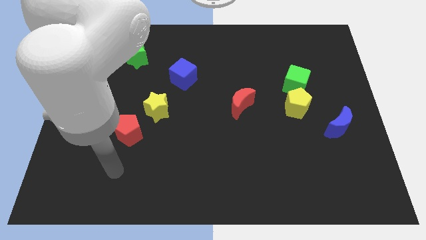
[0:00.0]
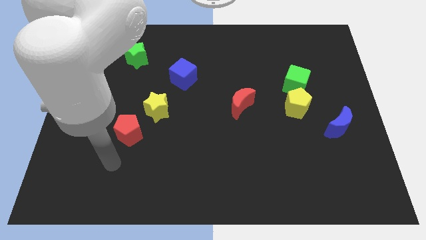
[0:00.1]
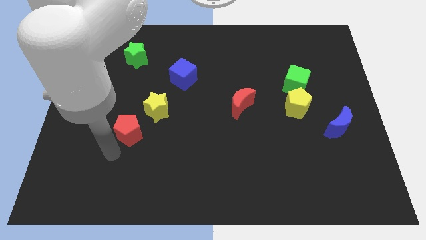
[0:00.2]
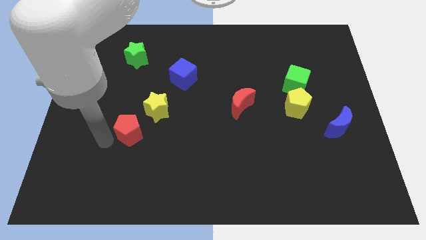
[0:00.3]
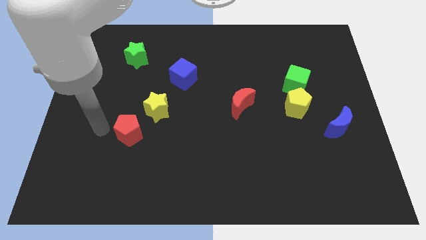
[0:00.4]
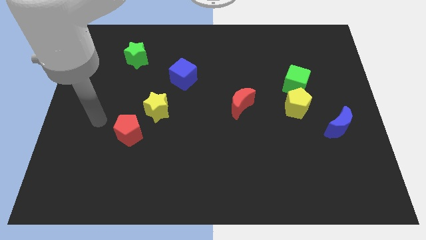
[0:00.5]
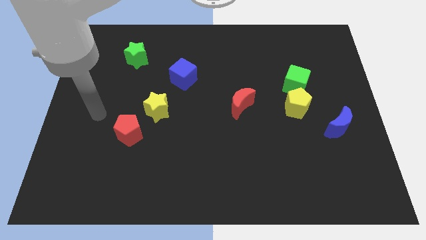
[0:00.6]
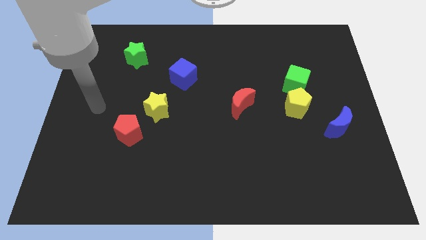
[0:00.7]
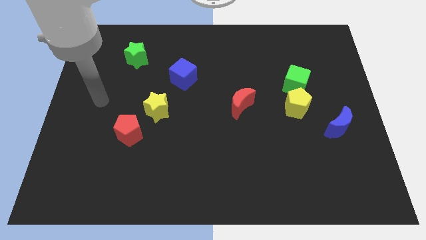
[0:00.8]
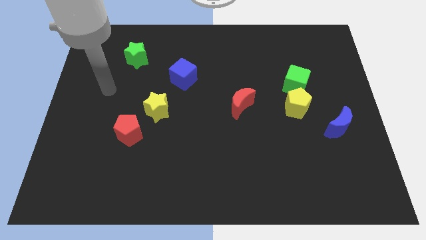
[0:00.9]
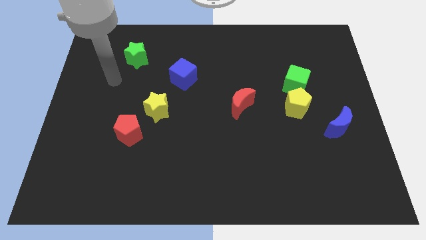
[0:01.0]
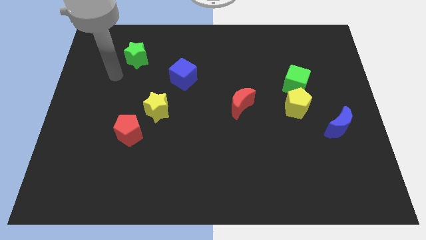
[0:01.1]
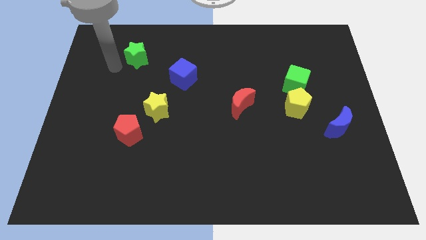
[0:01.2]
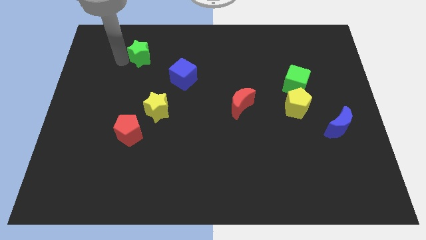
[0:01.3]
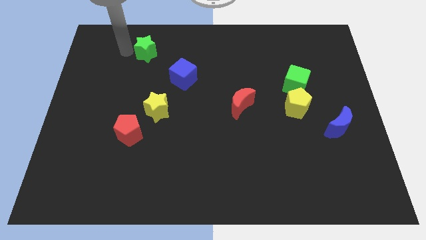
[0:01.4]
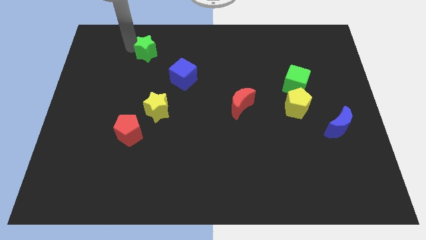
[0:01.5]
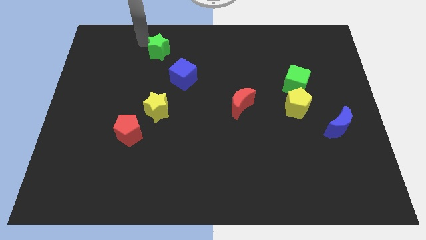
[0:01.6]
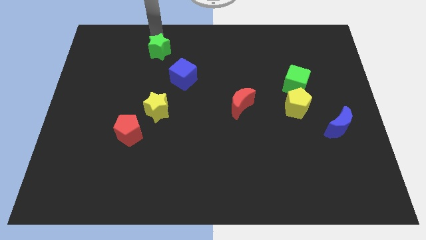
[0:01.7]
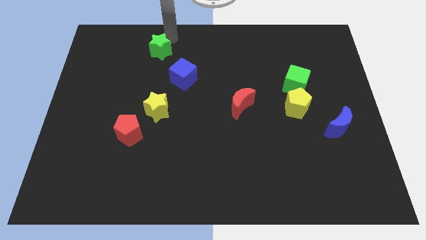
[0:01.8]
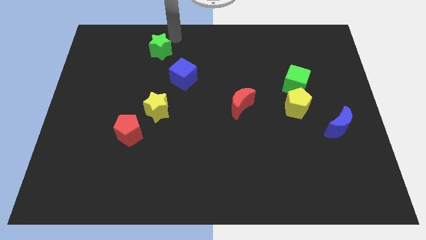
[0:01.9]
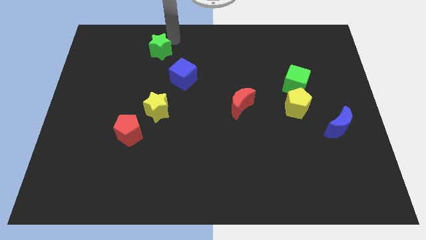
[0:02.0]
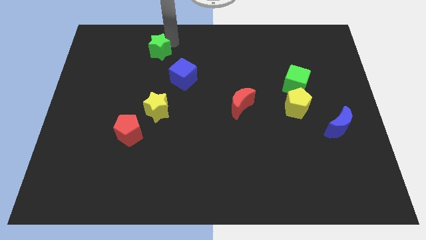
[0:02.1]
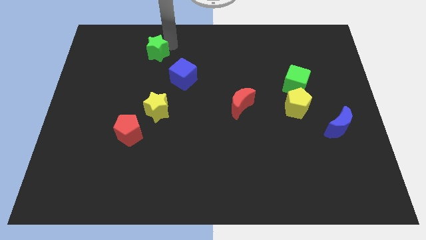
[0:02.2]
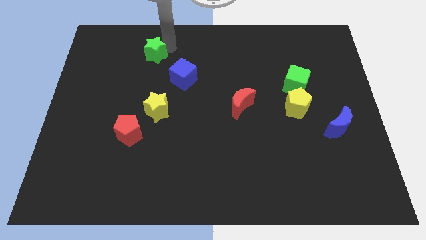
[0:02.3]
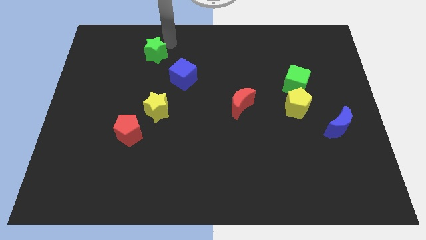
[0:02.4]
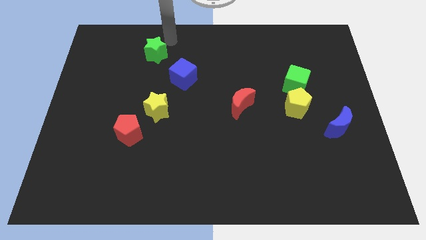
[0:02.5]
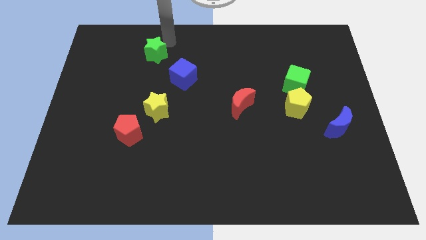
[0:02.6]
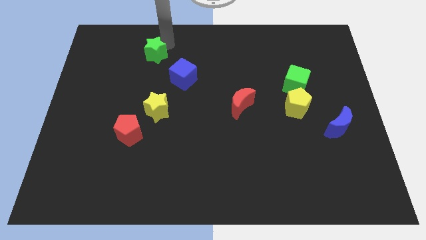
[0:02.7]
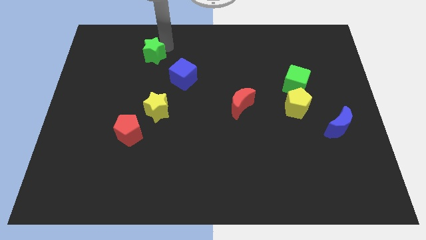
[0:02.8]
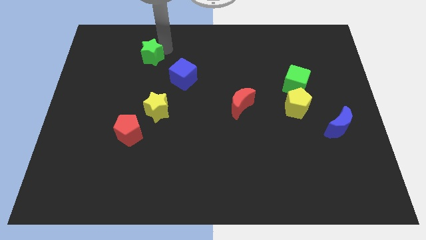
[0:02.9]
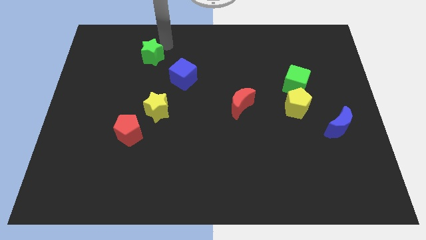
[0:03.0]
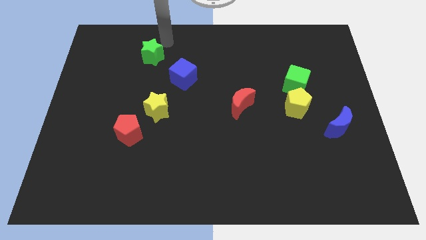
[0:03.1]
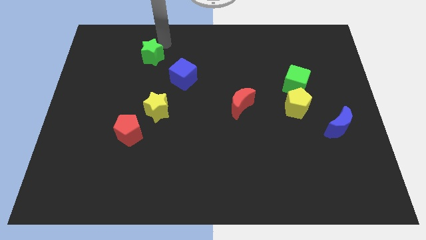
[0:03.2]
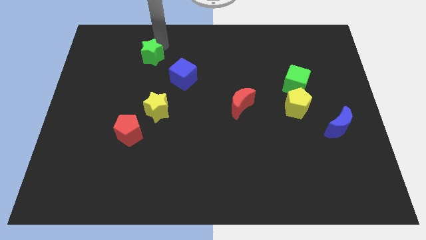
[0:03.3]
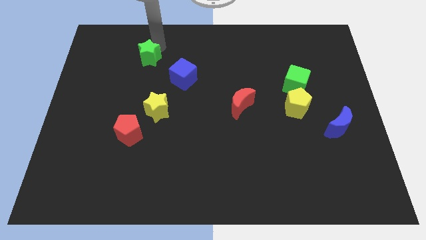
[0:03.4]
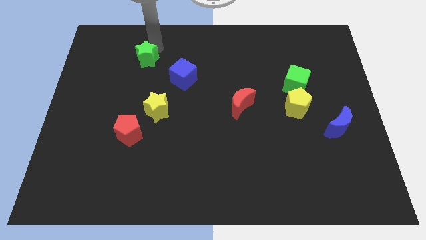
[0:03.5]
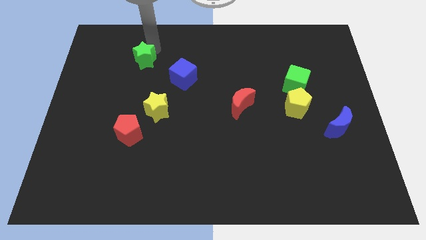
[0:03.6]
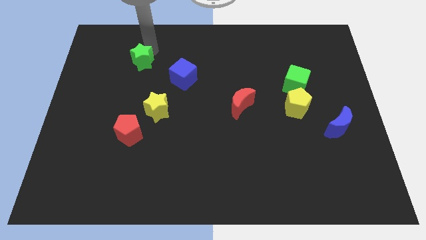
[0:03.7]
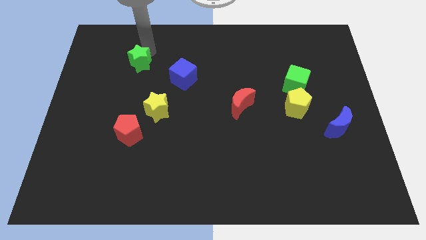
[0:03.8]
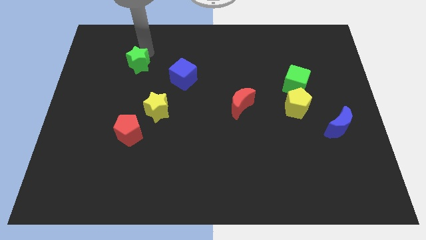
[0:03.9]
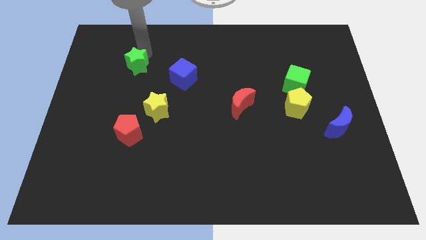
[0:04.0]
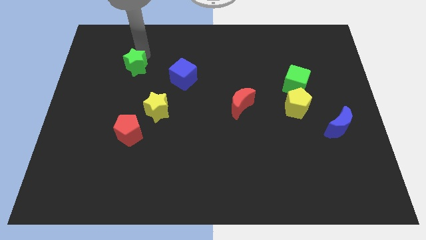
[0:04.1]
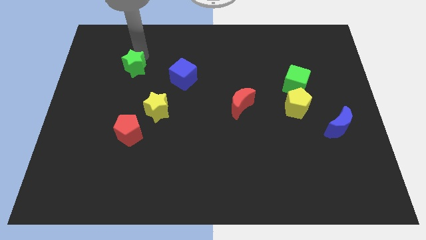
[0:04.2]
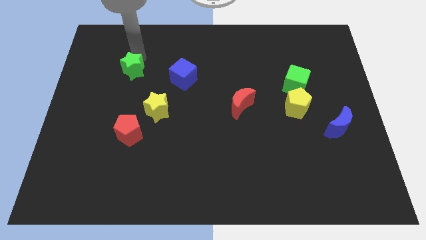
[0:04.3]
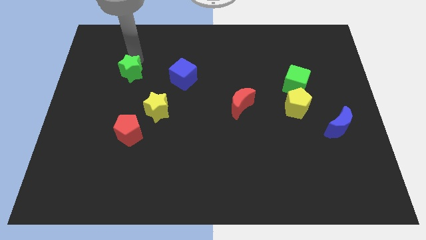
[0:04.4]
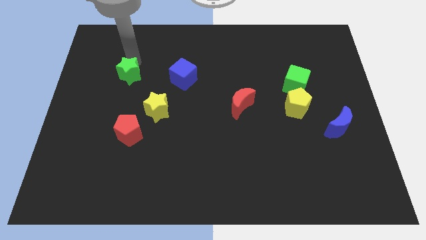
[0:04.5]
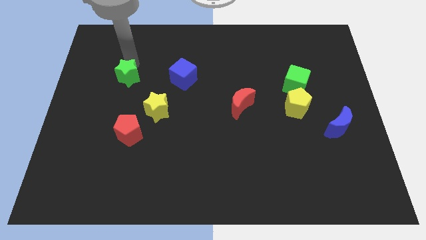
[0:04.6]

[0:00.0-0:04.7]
move the green star downwards a little

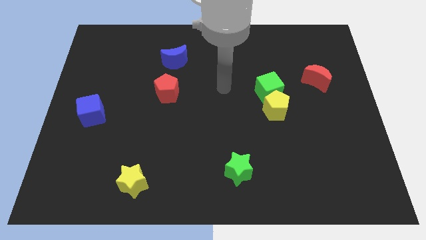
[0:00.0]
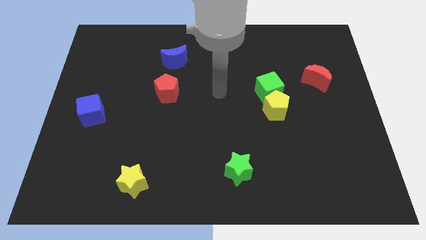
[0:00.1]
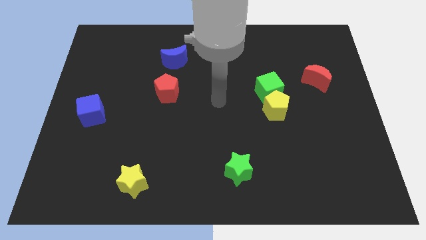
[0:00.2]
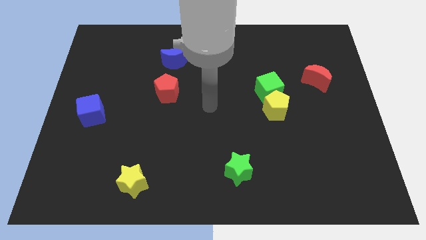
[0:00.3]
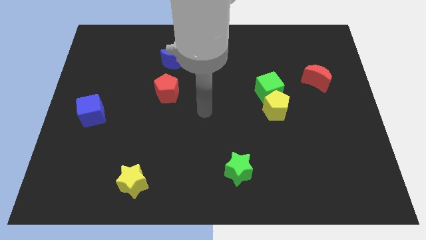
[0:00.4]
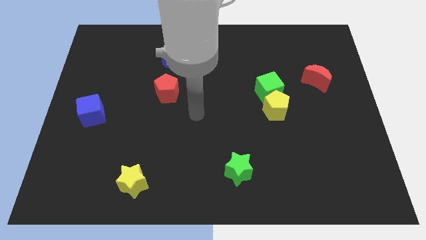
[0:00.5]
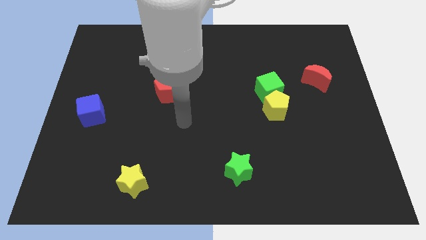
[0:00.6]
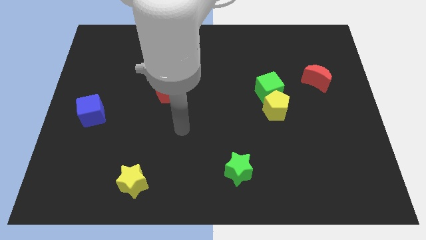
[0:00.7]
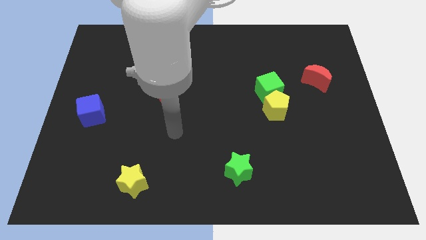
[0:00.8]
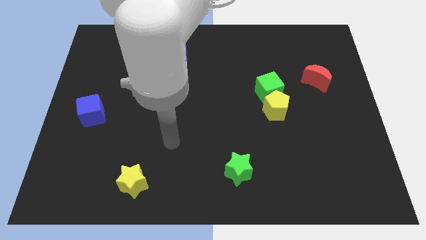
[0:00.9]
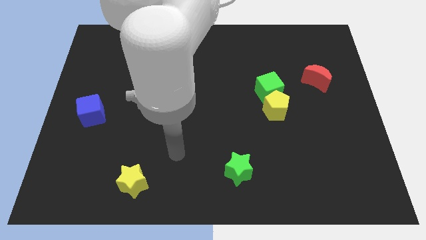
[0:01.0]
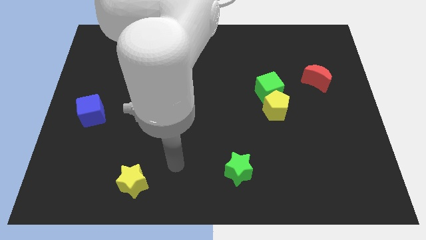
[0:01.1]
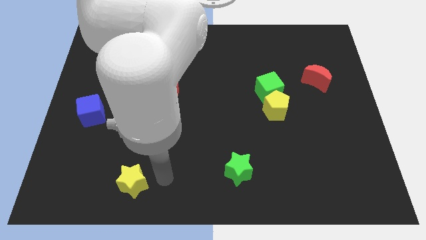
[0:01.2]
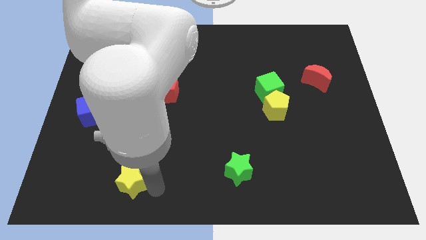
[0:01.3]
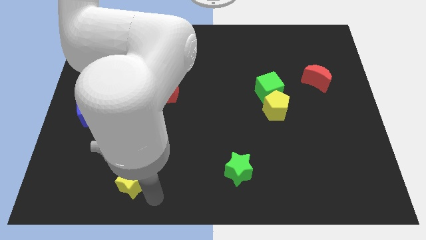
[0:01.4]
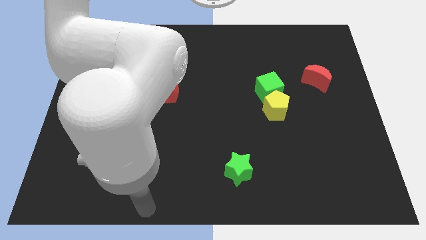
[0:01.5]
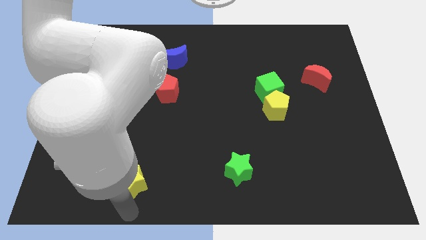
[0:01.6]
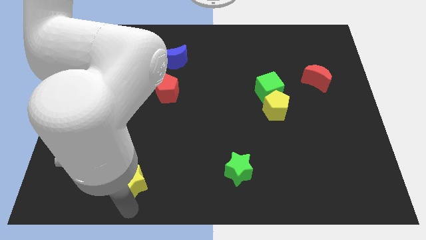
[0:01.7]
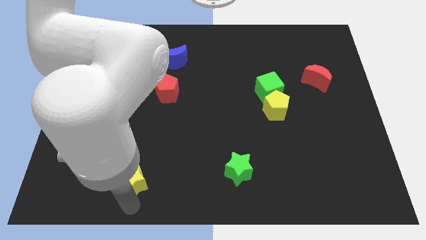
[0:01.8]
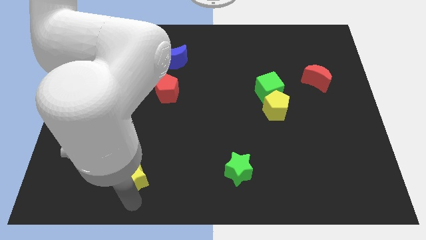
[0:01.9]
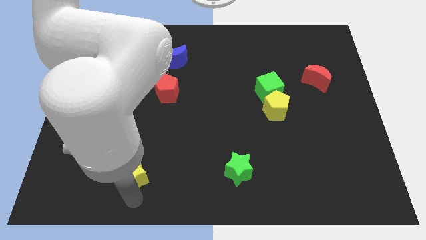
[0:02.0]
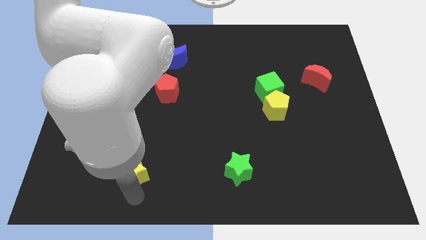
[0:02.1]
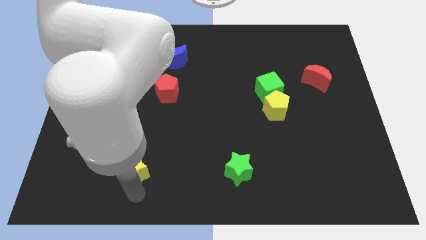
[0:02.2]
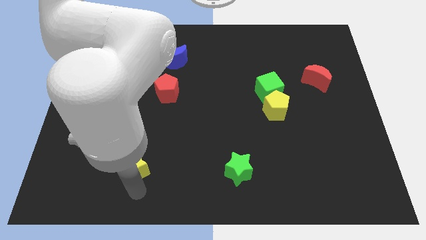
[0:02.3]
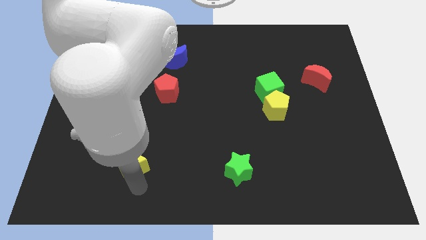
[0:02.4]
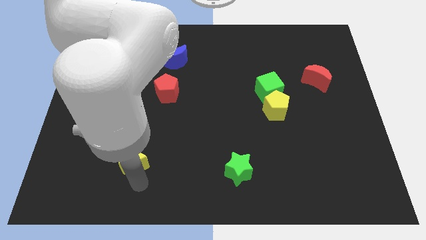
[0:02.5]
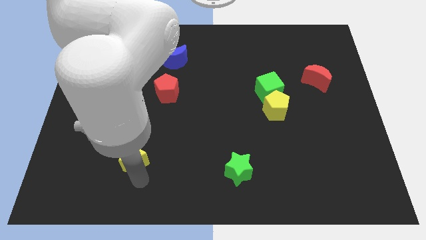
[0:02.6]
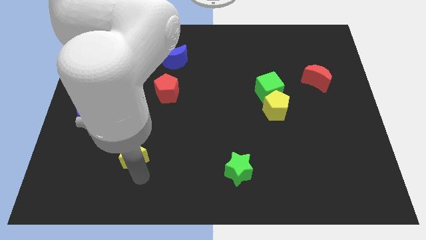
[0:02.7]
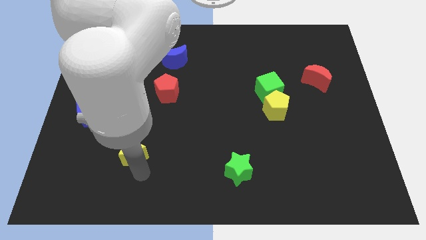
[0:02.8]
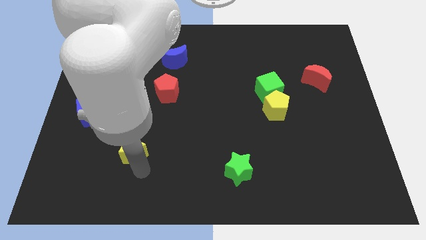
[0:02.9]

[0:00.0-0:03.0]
push the yellow star upwards a little

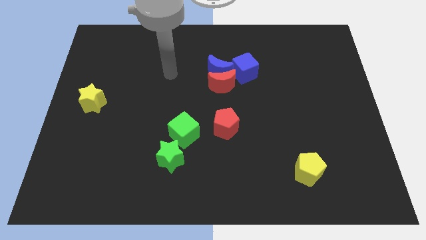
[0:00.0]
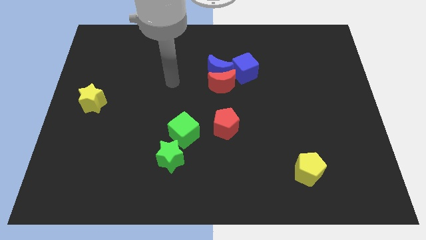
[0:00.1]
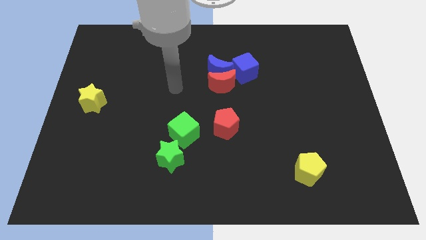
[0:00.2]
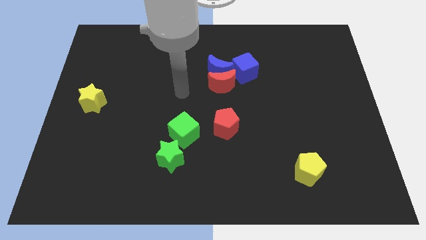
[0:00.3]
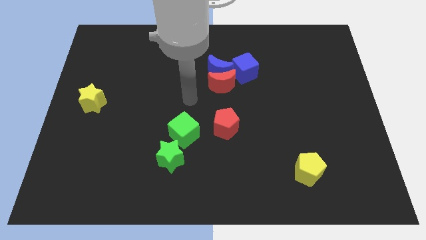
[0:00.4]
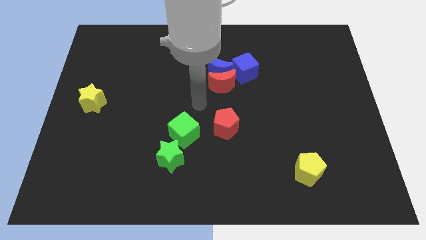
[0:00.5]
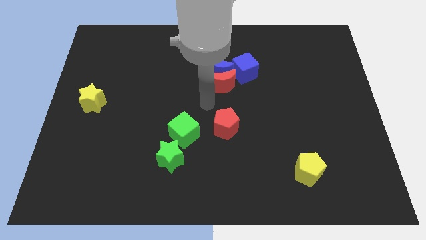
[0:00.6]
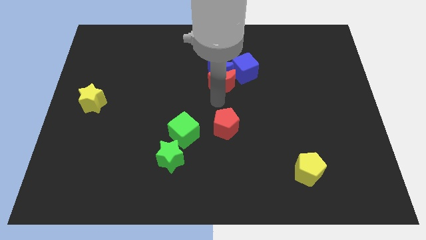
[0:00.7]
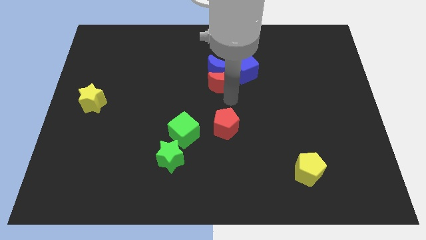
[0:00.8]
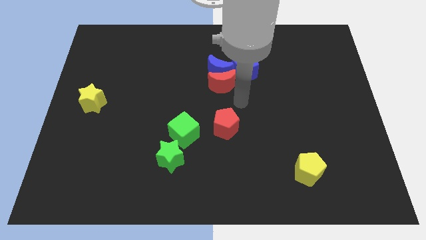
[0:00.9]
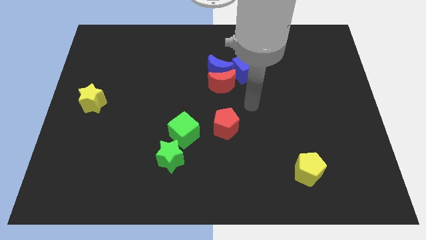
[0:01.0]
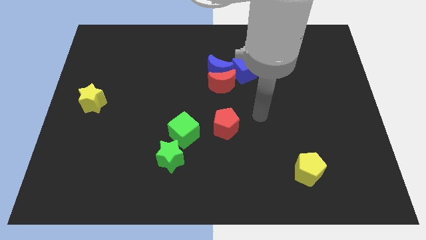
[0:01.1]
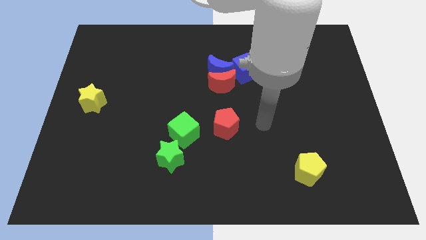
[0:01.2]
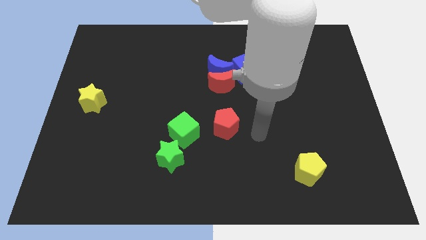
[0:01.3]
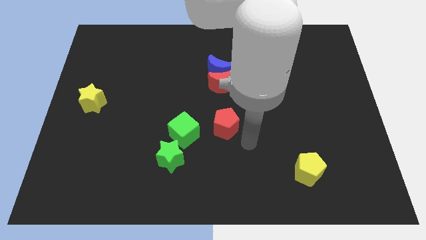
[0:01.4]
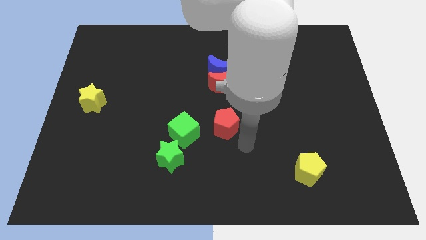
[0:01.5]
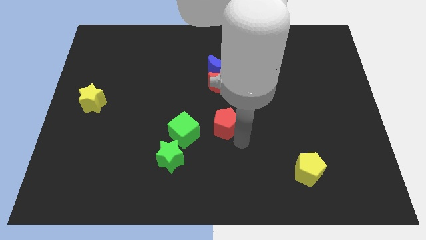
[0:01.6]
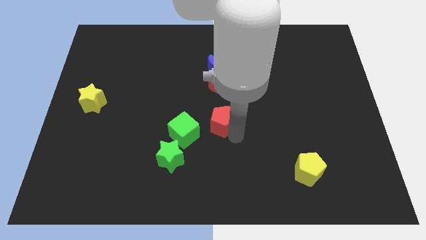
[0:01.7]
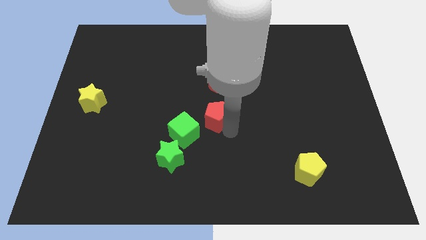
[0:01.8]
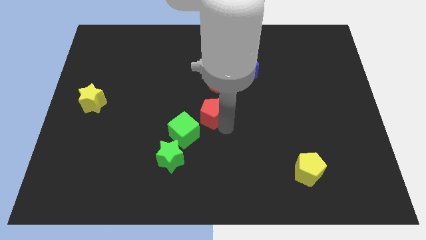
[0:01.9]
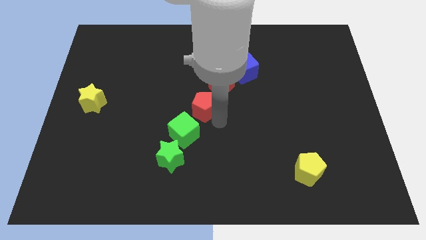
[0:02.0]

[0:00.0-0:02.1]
push the red pentagon up and to the left diagonally a little
